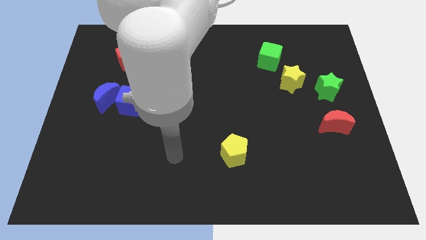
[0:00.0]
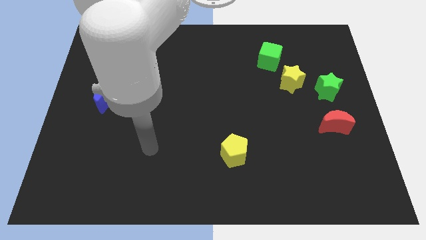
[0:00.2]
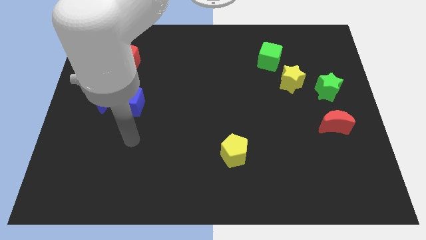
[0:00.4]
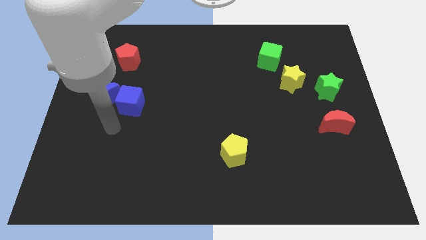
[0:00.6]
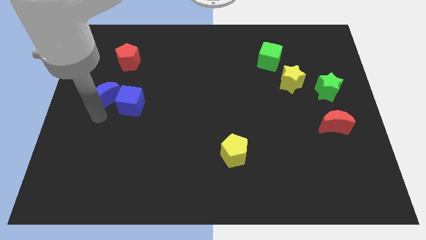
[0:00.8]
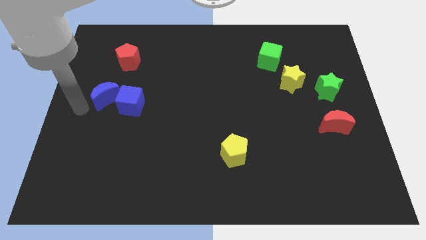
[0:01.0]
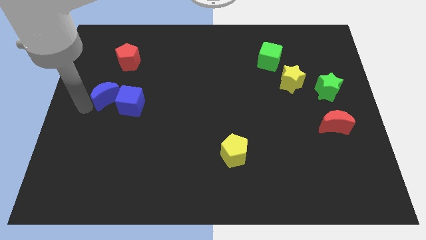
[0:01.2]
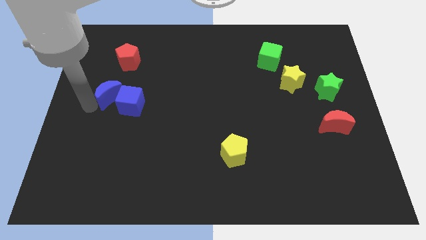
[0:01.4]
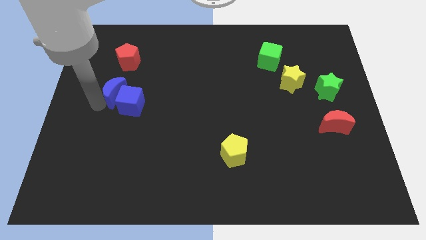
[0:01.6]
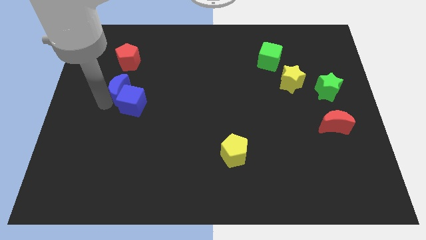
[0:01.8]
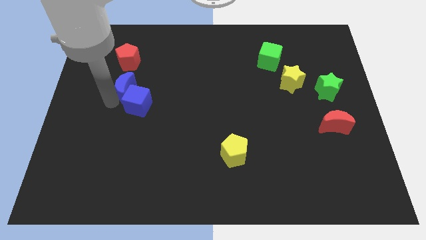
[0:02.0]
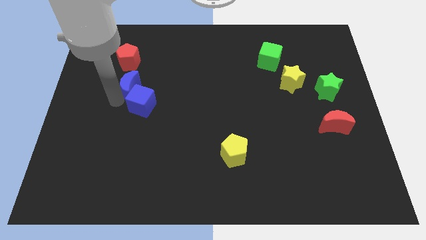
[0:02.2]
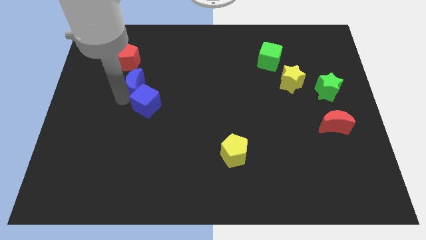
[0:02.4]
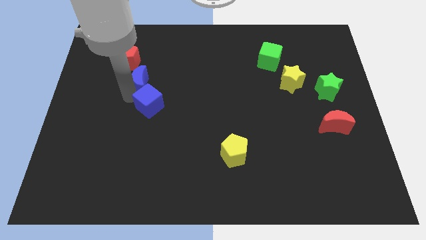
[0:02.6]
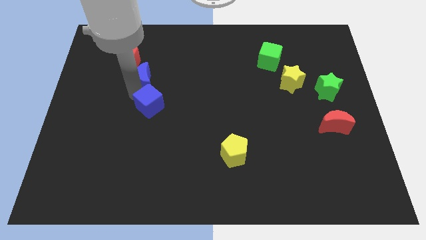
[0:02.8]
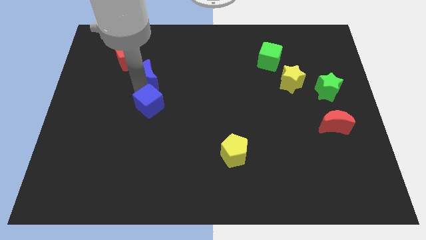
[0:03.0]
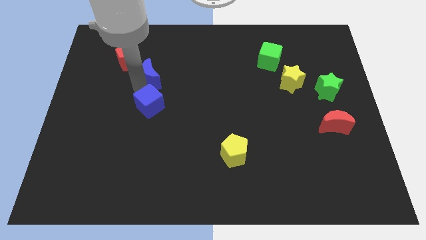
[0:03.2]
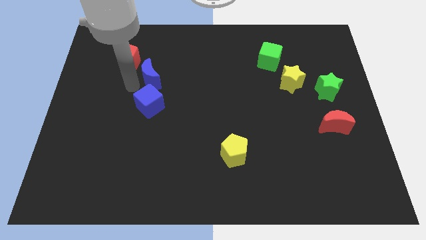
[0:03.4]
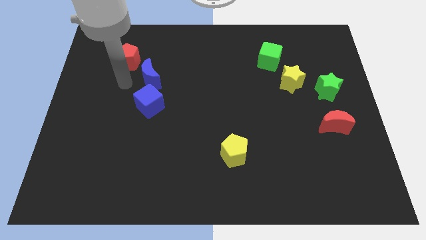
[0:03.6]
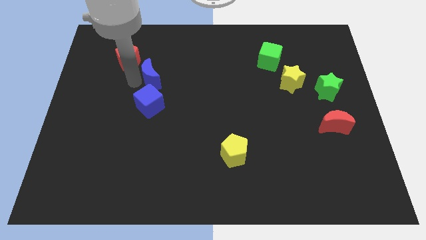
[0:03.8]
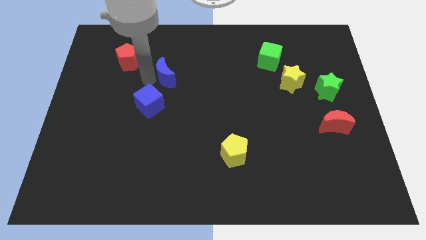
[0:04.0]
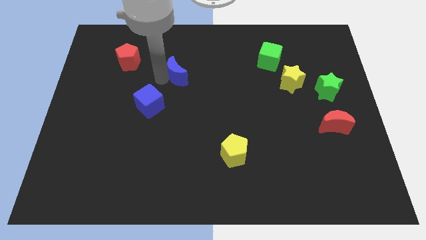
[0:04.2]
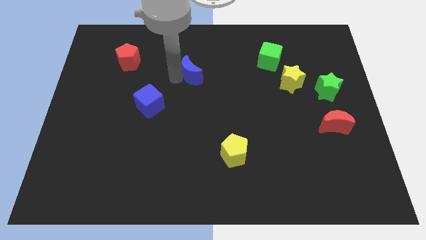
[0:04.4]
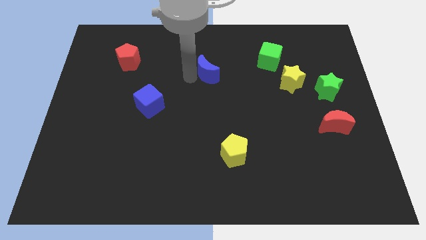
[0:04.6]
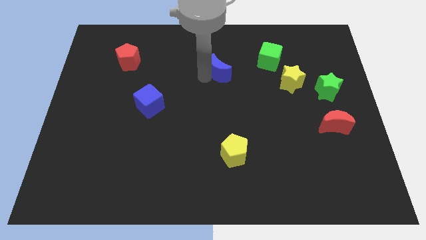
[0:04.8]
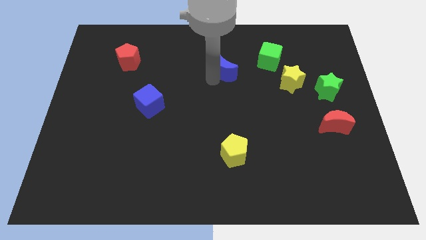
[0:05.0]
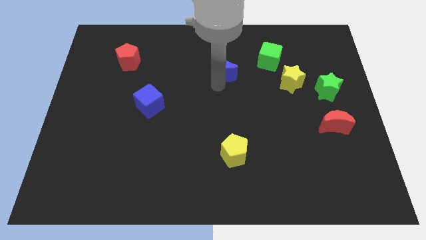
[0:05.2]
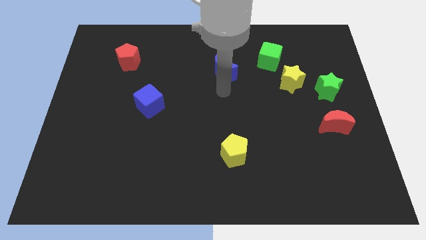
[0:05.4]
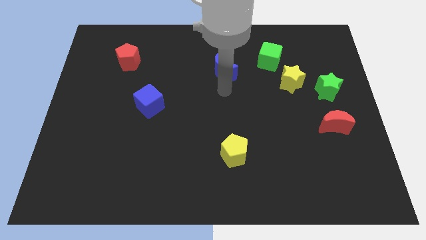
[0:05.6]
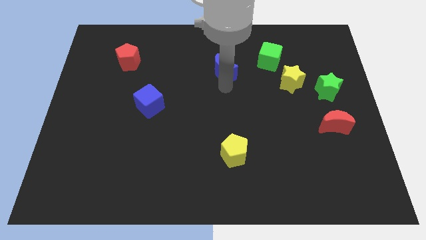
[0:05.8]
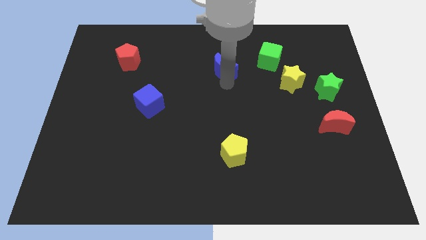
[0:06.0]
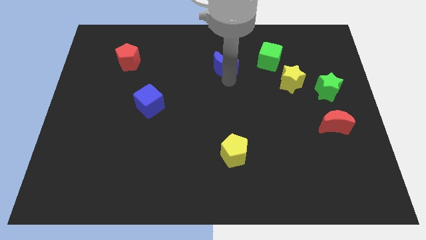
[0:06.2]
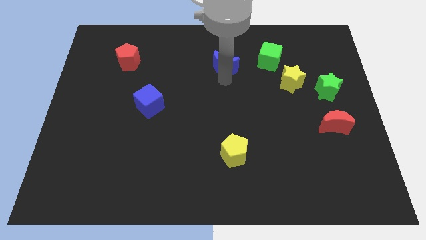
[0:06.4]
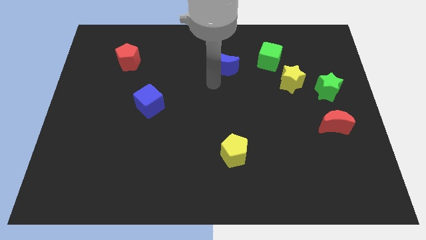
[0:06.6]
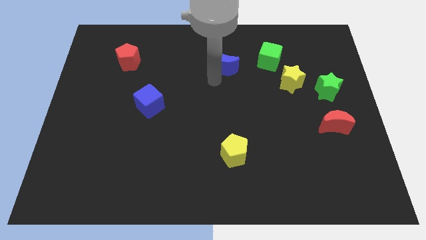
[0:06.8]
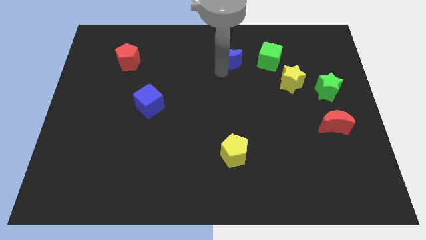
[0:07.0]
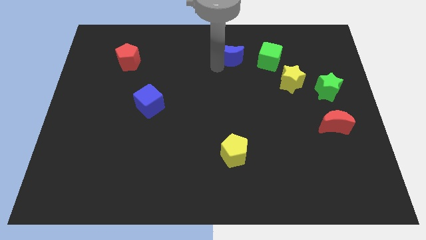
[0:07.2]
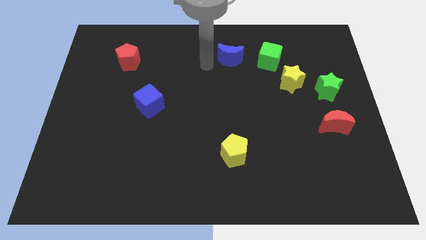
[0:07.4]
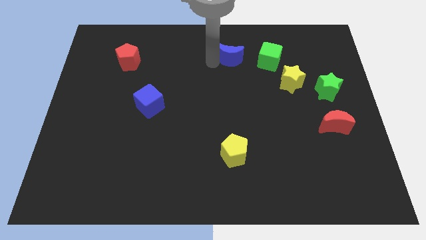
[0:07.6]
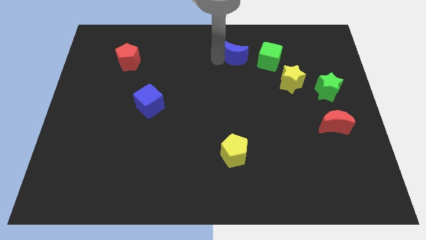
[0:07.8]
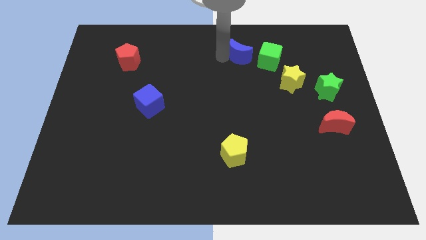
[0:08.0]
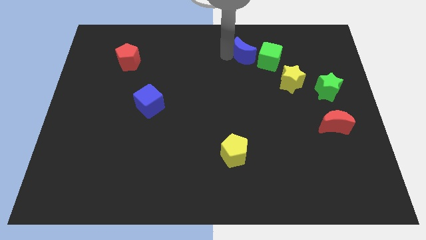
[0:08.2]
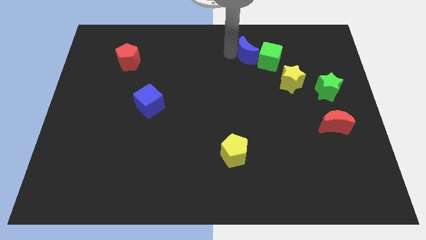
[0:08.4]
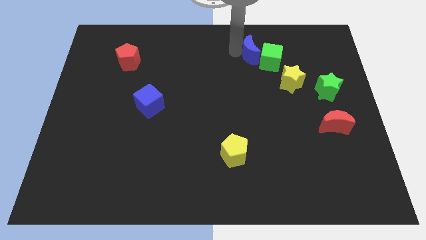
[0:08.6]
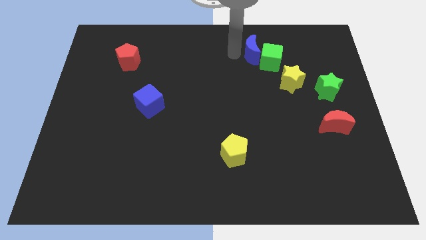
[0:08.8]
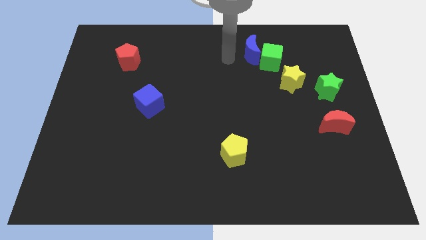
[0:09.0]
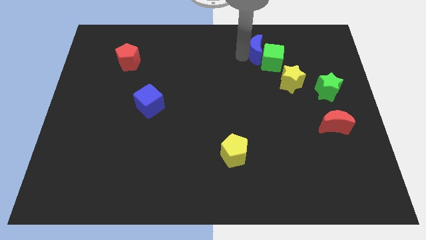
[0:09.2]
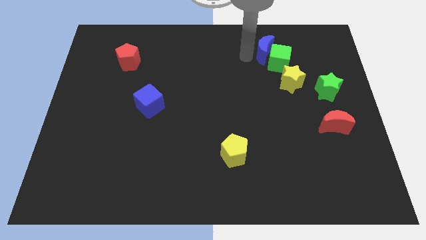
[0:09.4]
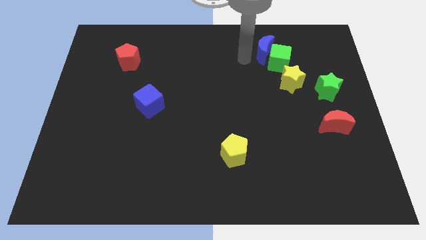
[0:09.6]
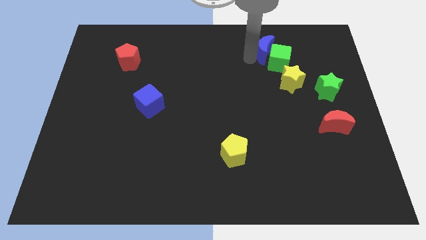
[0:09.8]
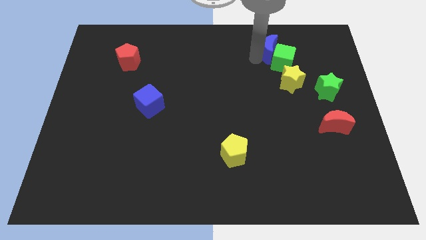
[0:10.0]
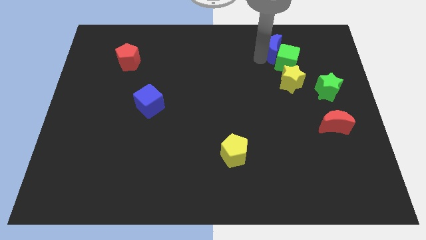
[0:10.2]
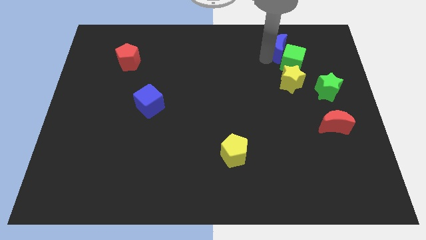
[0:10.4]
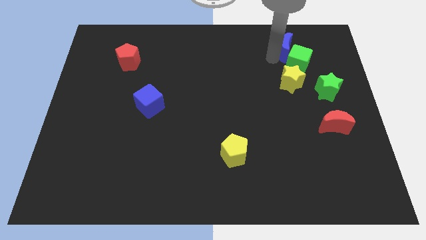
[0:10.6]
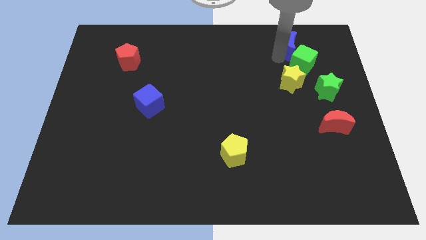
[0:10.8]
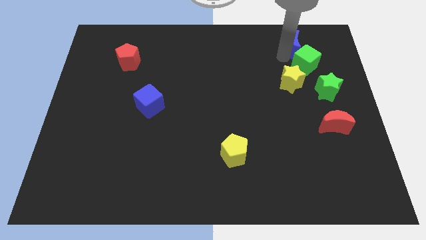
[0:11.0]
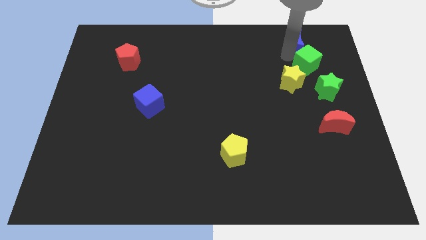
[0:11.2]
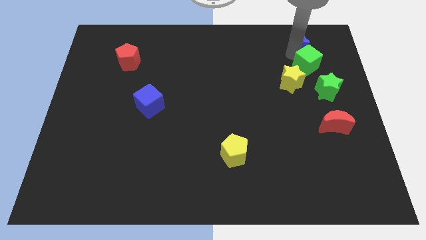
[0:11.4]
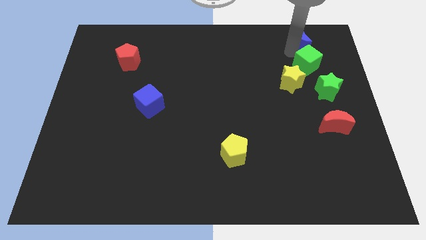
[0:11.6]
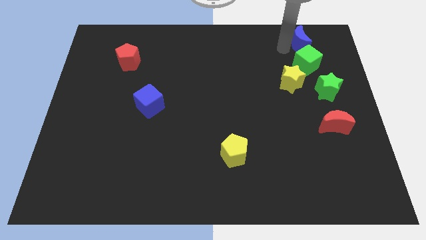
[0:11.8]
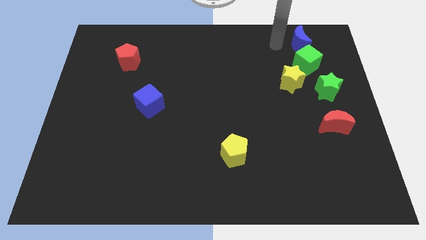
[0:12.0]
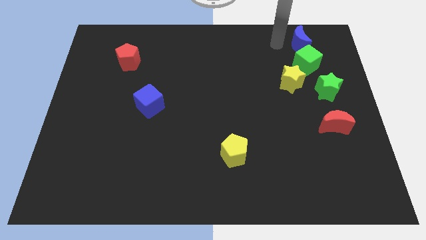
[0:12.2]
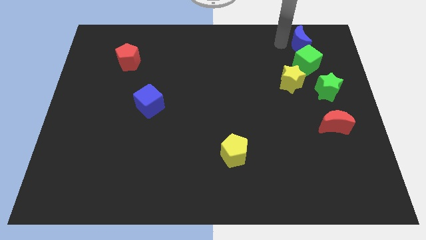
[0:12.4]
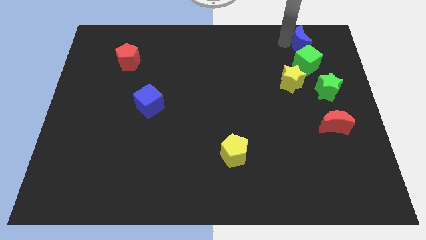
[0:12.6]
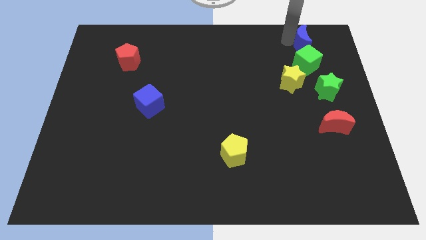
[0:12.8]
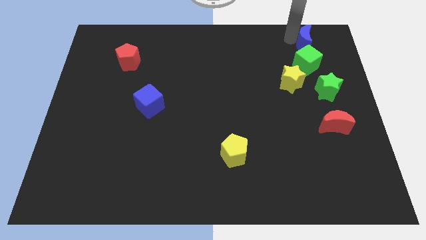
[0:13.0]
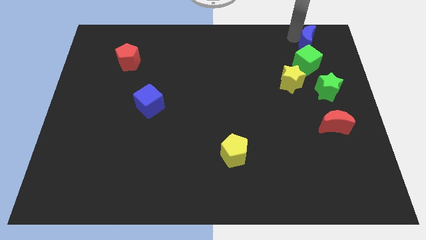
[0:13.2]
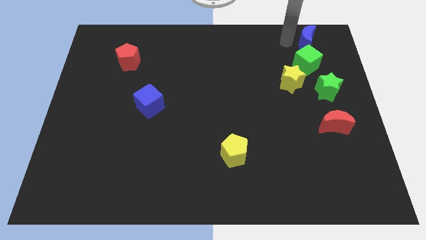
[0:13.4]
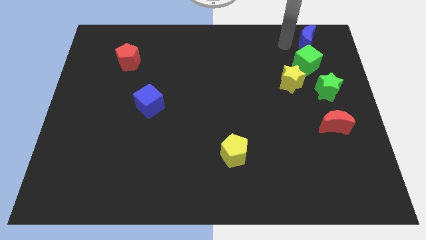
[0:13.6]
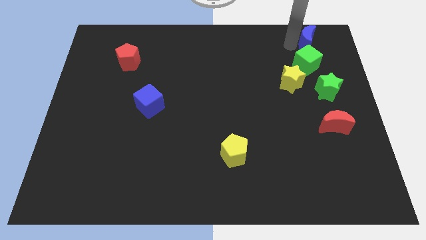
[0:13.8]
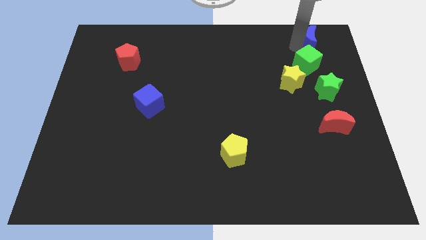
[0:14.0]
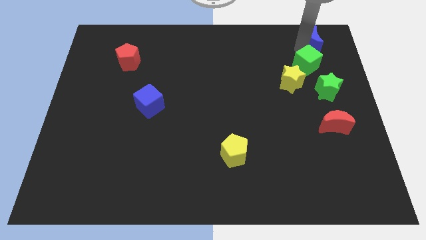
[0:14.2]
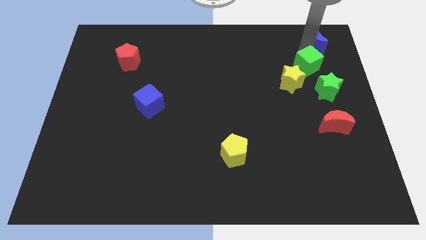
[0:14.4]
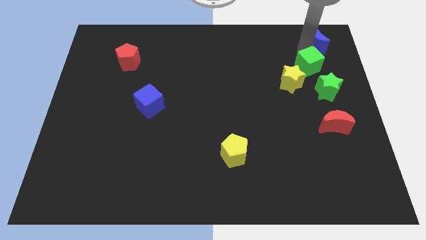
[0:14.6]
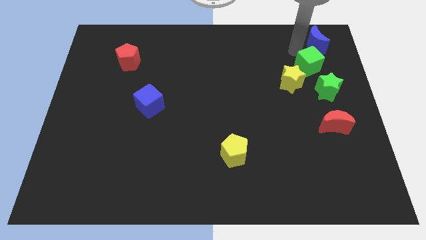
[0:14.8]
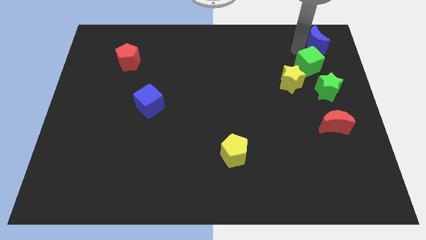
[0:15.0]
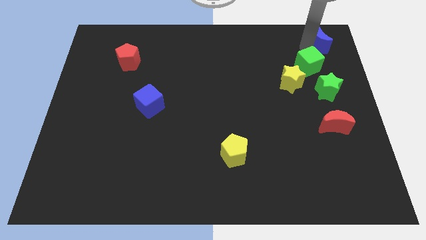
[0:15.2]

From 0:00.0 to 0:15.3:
slide the blue moon to the top right of the board
